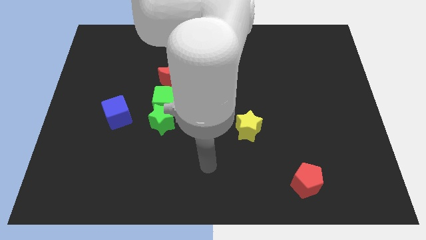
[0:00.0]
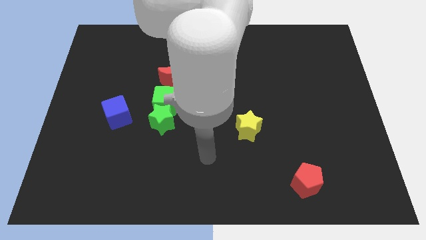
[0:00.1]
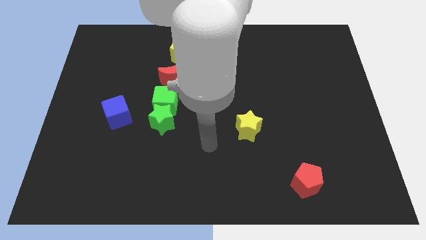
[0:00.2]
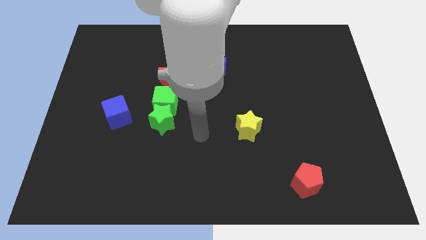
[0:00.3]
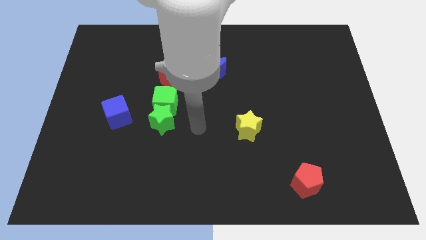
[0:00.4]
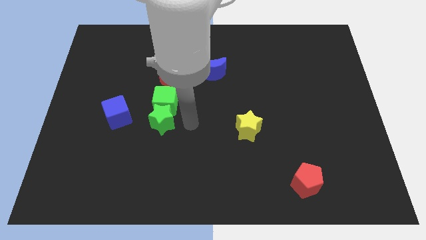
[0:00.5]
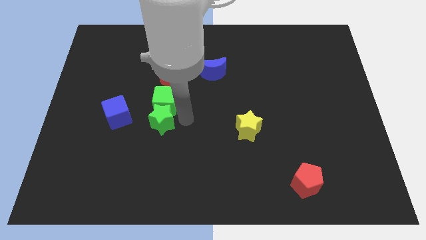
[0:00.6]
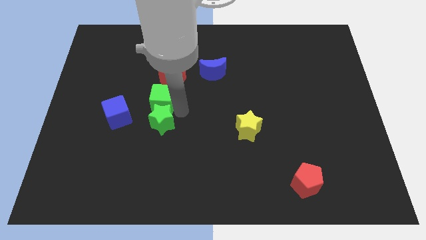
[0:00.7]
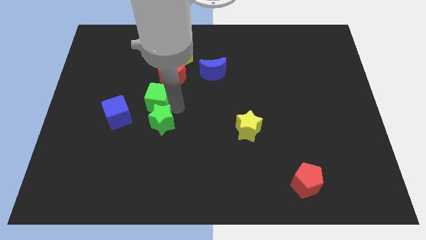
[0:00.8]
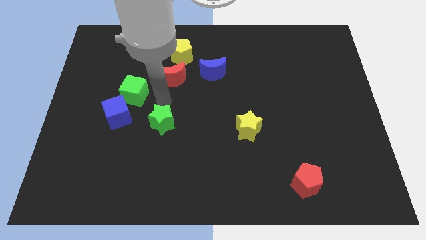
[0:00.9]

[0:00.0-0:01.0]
pull the green star apart from the green cube

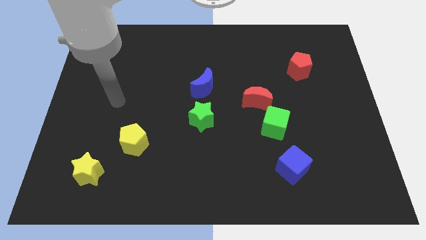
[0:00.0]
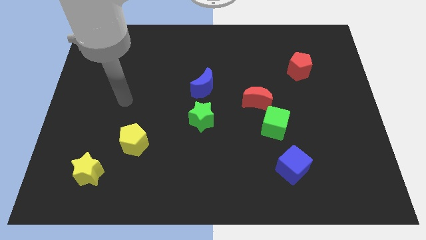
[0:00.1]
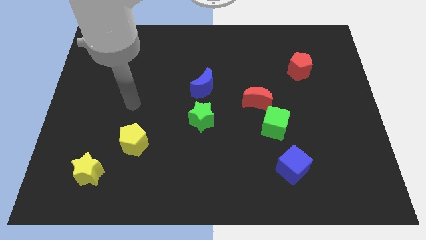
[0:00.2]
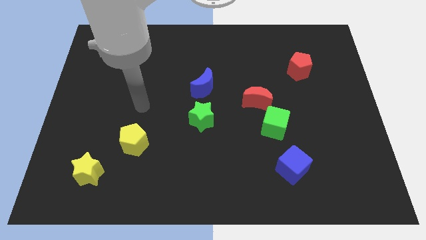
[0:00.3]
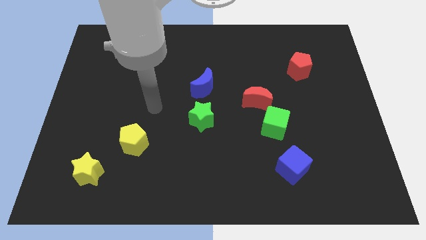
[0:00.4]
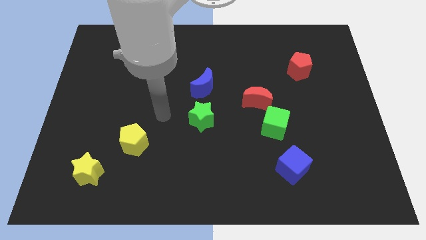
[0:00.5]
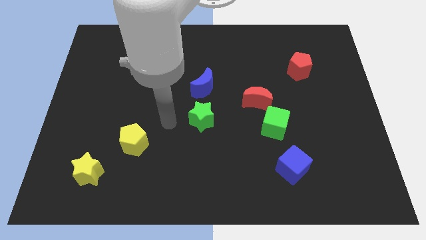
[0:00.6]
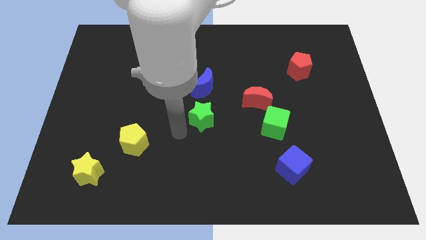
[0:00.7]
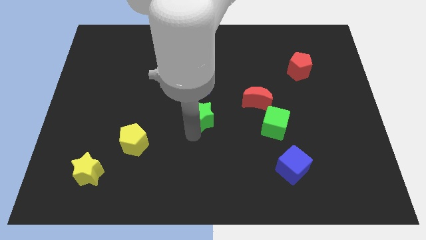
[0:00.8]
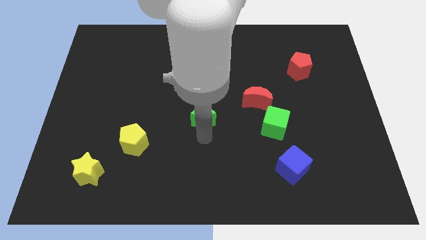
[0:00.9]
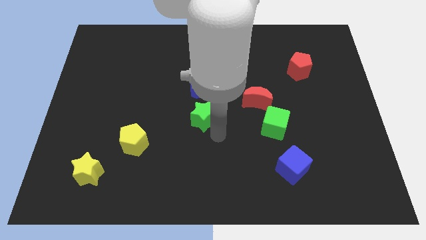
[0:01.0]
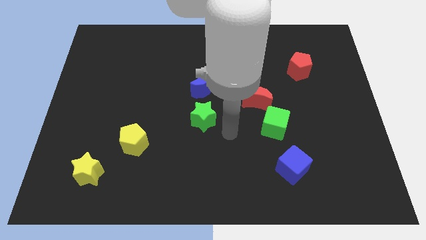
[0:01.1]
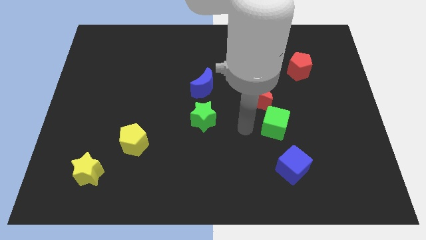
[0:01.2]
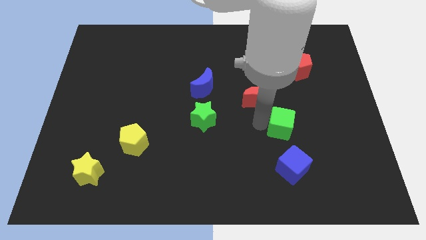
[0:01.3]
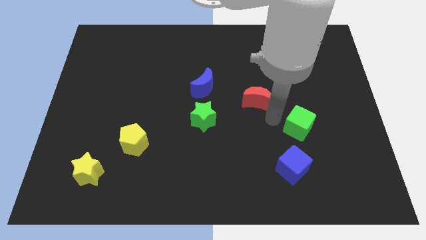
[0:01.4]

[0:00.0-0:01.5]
pull the red moon apart from the green cube

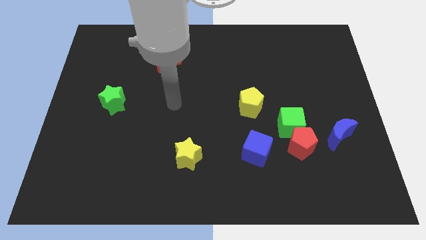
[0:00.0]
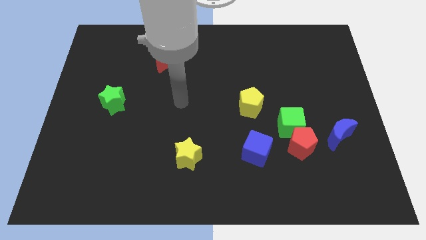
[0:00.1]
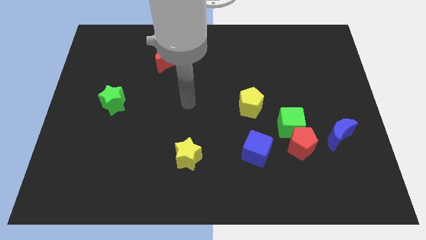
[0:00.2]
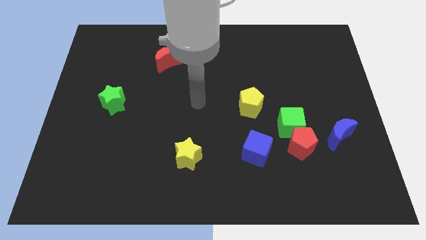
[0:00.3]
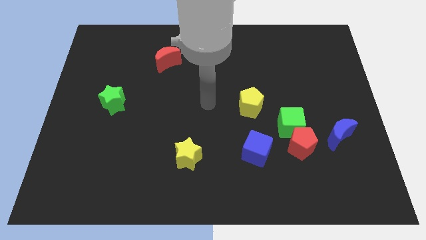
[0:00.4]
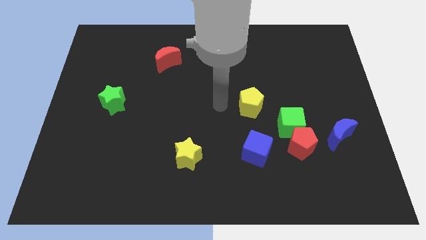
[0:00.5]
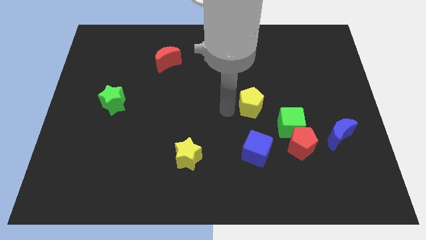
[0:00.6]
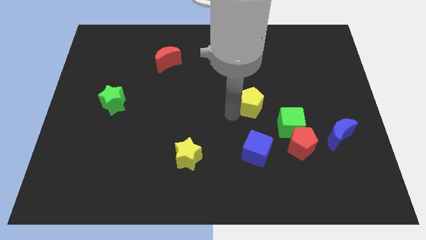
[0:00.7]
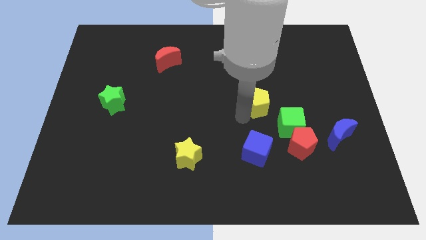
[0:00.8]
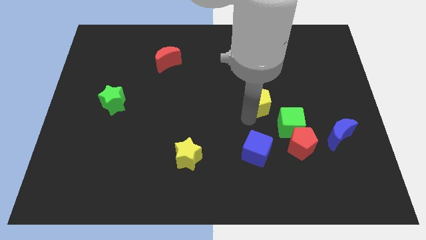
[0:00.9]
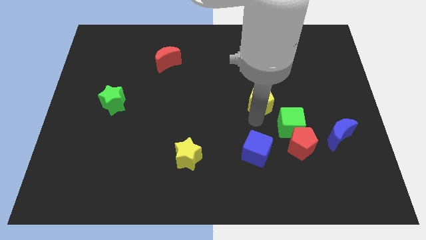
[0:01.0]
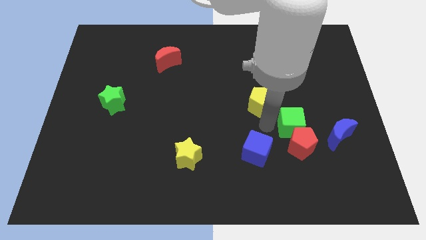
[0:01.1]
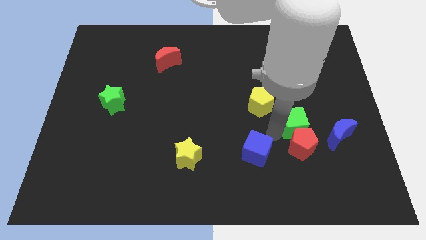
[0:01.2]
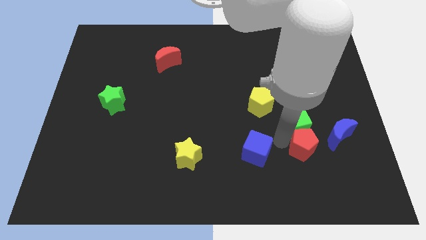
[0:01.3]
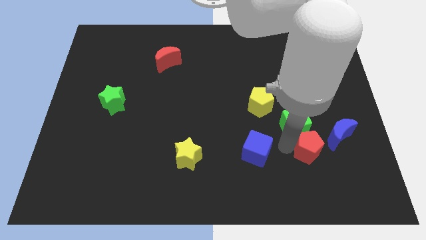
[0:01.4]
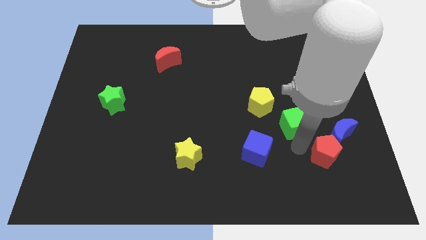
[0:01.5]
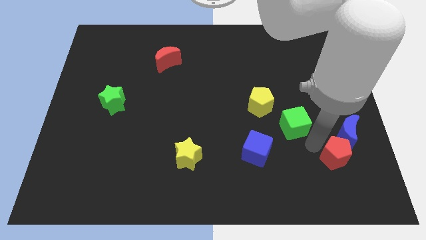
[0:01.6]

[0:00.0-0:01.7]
pull the green cube apart from the red pentagon

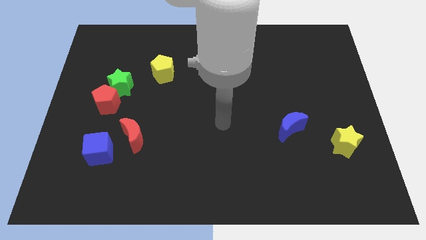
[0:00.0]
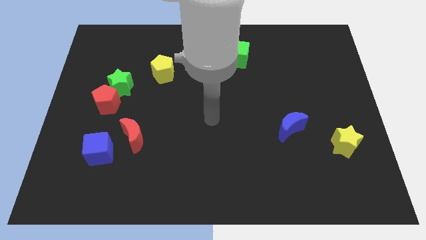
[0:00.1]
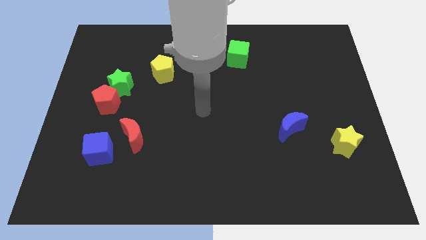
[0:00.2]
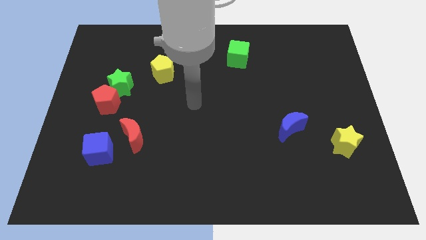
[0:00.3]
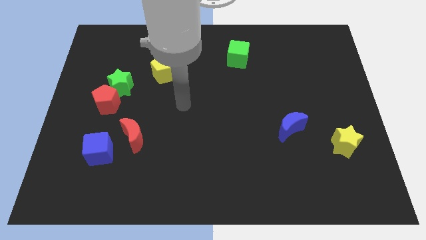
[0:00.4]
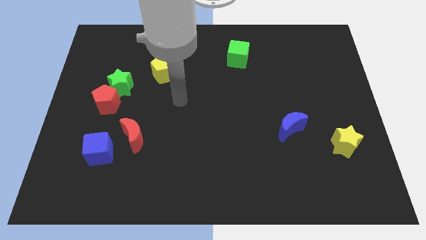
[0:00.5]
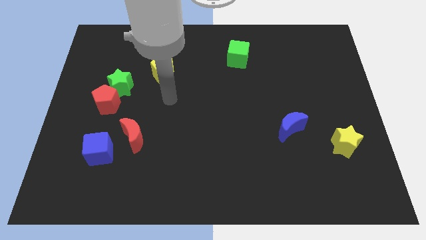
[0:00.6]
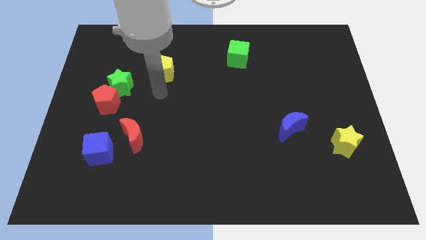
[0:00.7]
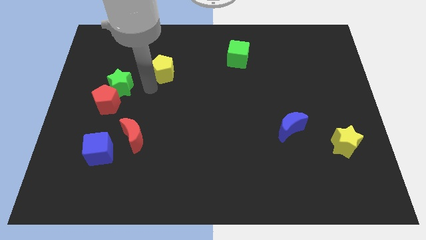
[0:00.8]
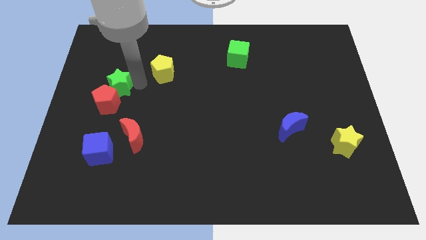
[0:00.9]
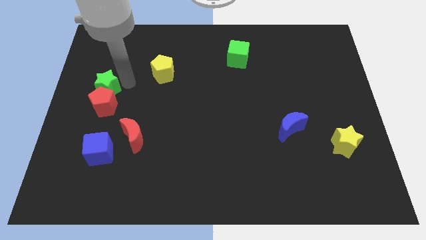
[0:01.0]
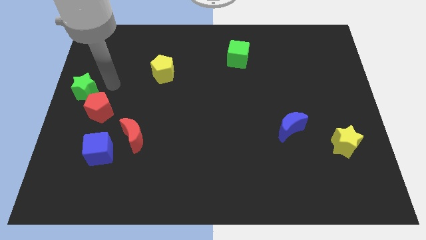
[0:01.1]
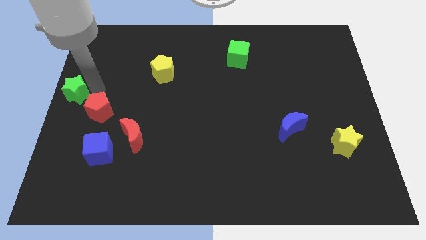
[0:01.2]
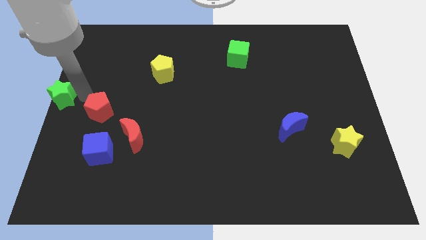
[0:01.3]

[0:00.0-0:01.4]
separate the red pentagon from the green star

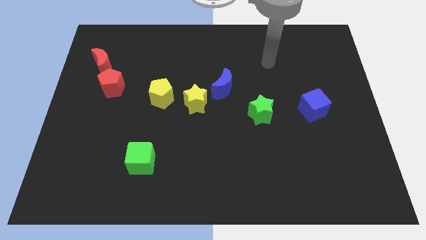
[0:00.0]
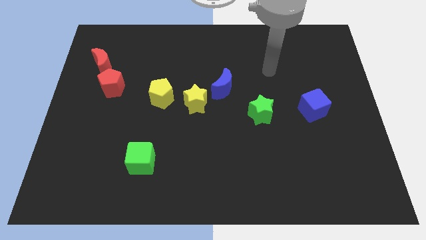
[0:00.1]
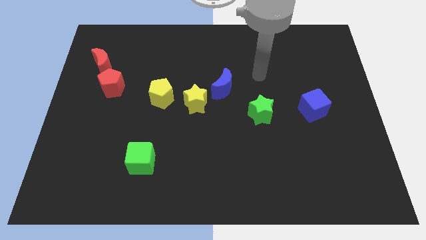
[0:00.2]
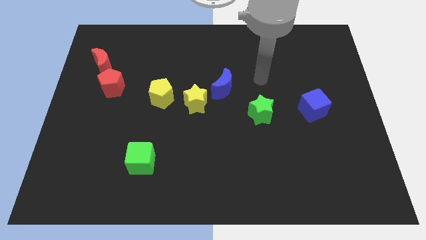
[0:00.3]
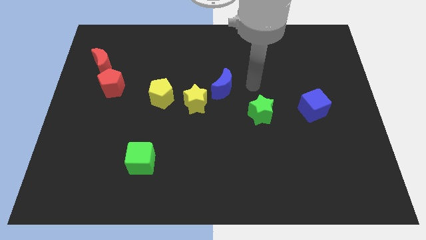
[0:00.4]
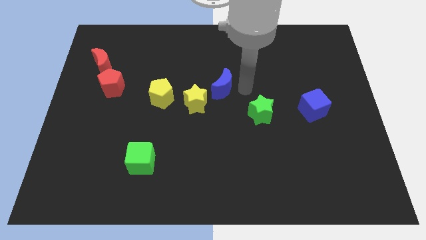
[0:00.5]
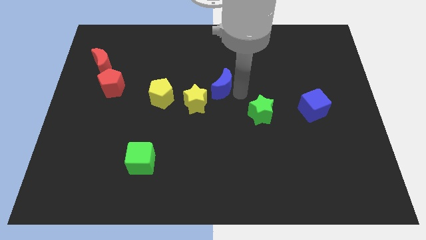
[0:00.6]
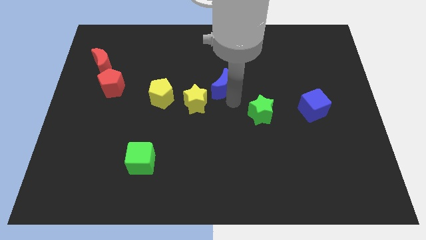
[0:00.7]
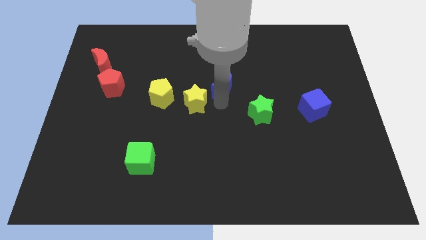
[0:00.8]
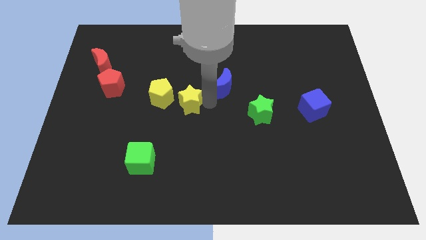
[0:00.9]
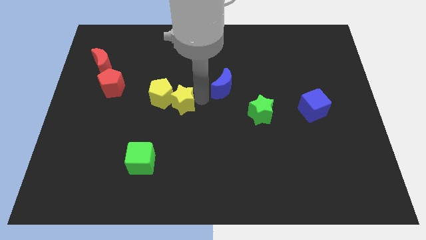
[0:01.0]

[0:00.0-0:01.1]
move the blue moon away from the yellow star

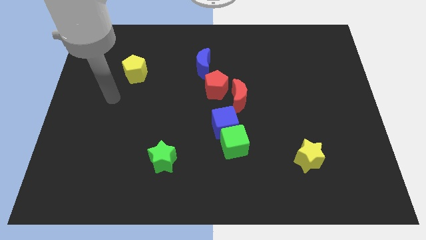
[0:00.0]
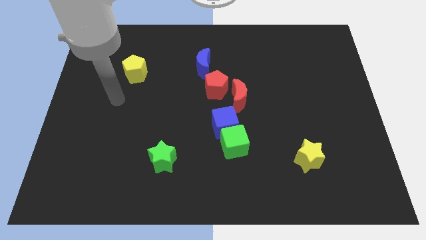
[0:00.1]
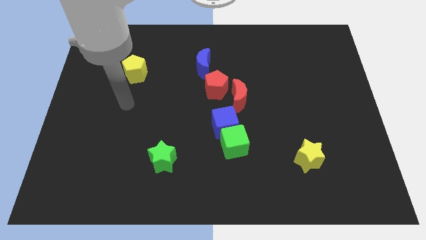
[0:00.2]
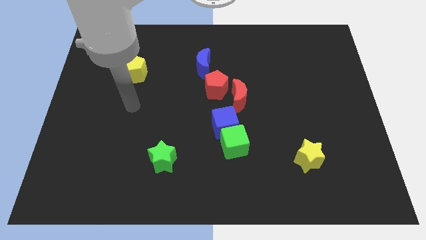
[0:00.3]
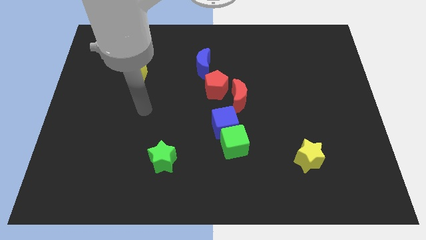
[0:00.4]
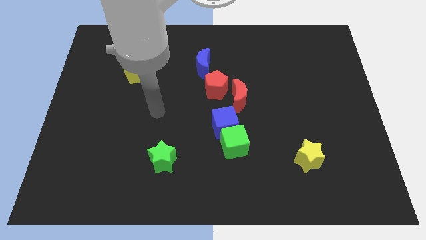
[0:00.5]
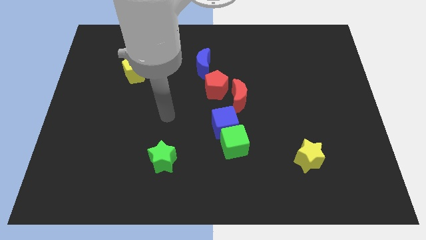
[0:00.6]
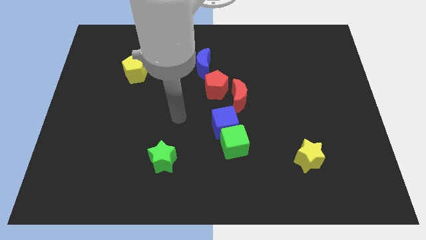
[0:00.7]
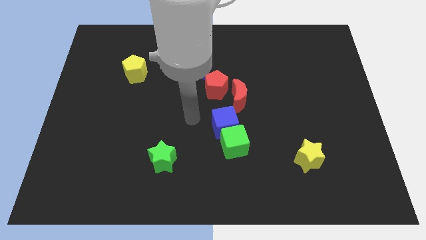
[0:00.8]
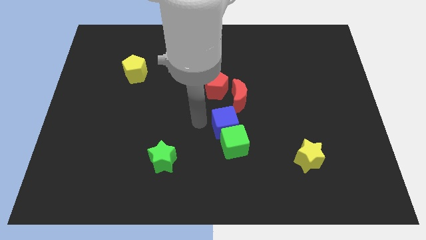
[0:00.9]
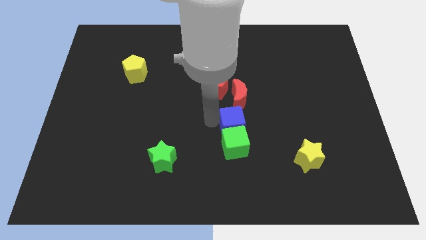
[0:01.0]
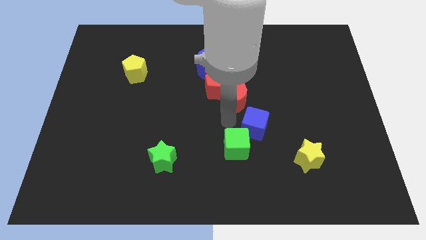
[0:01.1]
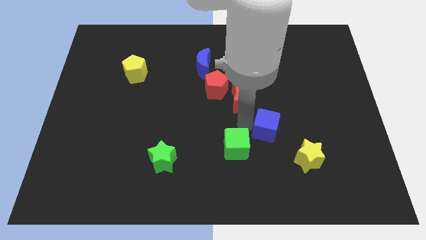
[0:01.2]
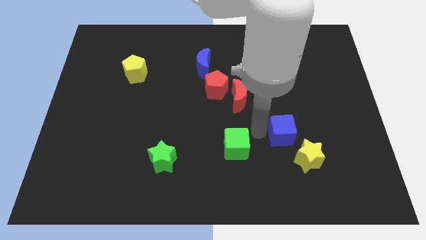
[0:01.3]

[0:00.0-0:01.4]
move the green cube away from the blue cube

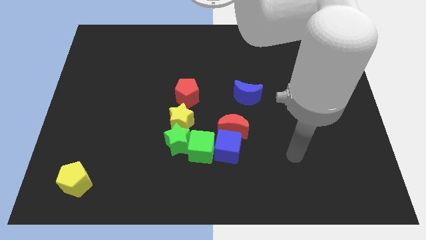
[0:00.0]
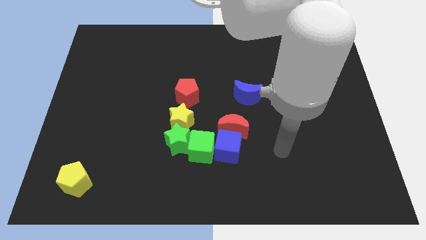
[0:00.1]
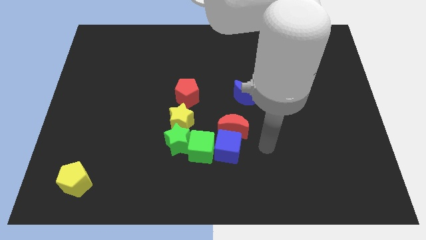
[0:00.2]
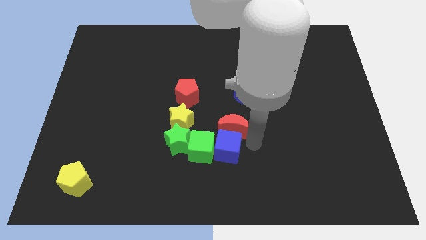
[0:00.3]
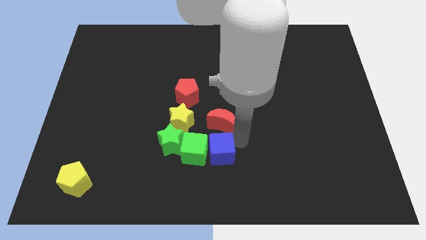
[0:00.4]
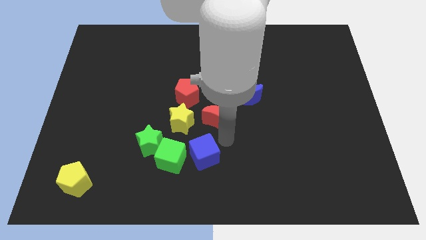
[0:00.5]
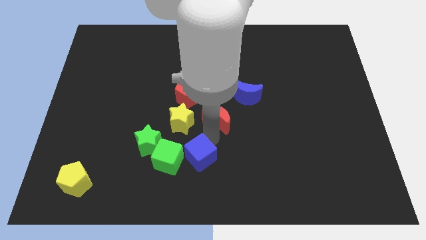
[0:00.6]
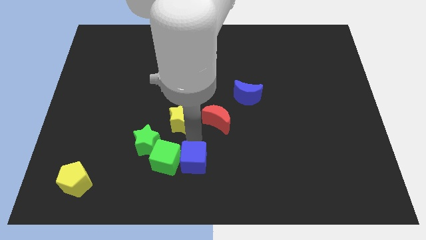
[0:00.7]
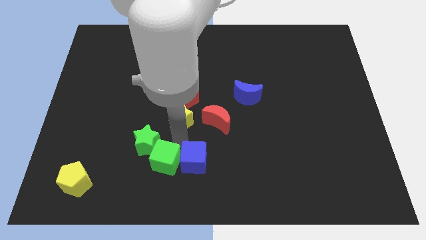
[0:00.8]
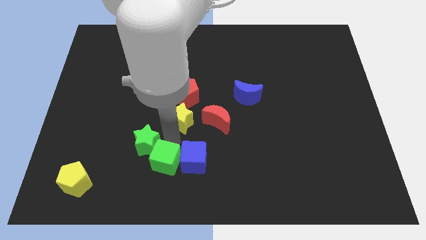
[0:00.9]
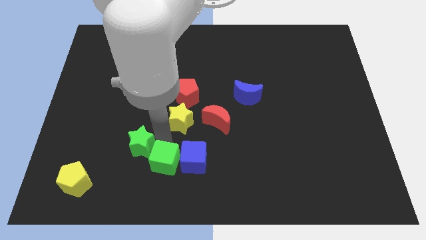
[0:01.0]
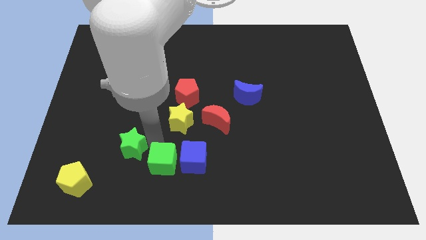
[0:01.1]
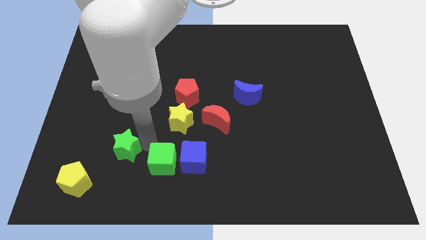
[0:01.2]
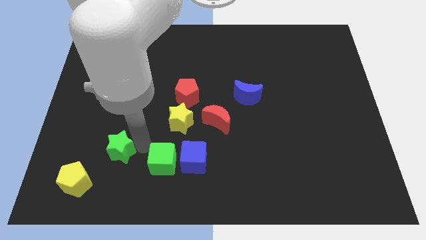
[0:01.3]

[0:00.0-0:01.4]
separate the green star from the green cube and yellow star
